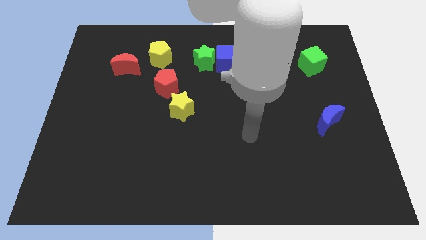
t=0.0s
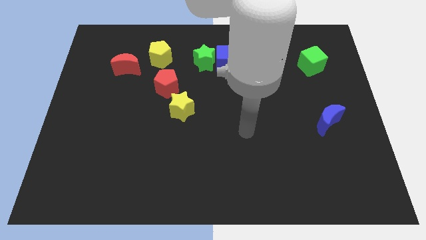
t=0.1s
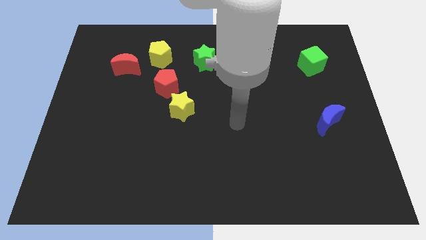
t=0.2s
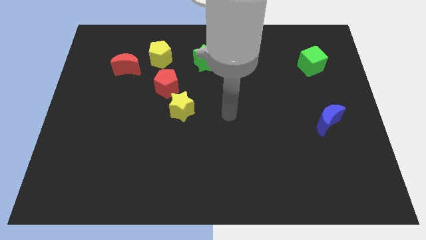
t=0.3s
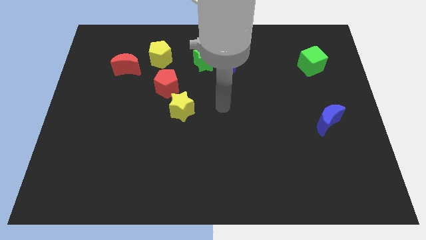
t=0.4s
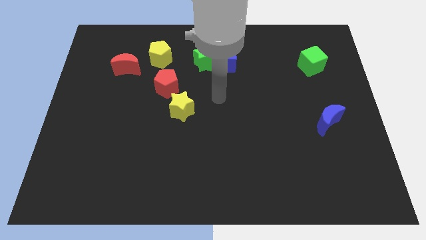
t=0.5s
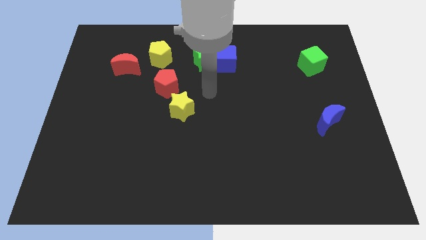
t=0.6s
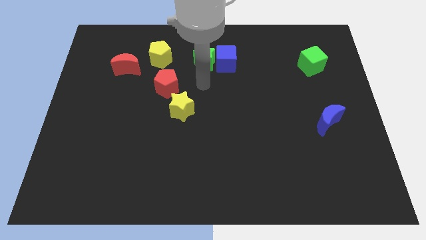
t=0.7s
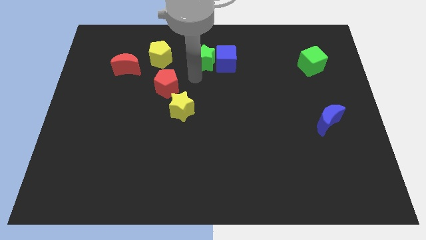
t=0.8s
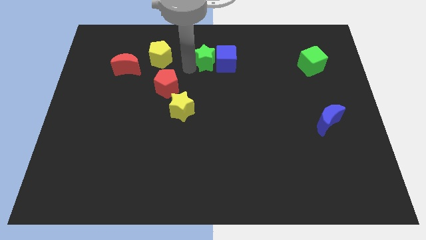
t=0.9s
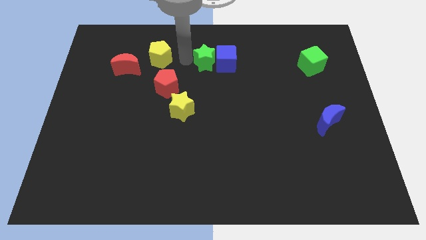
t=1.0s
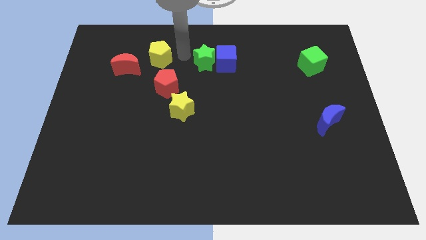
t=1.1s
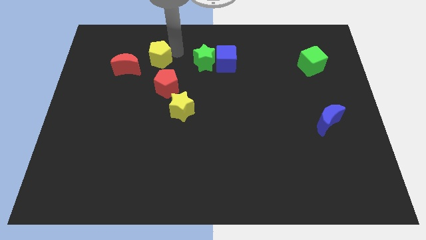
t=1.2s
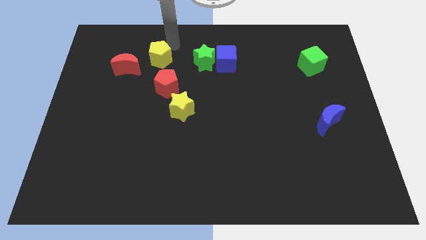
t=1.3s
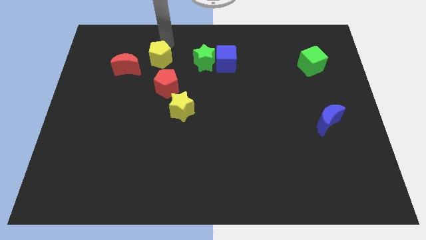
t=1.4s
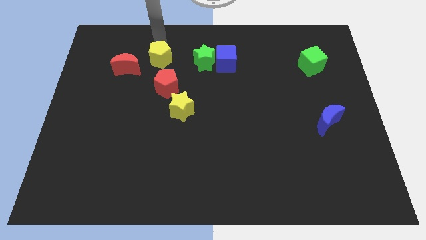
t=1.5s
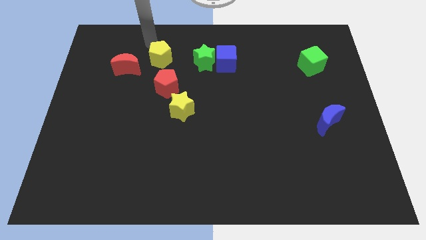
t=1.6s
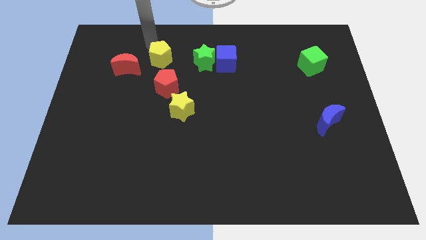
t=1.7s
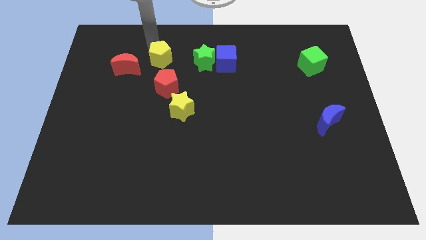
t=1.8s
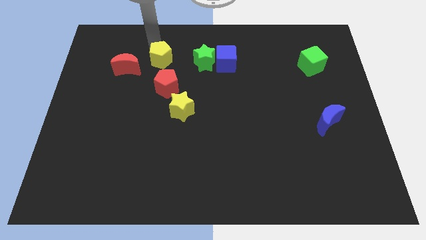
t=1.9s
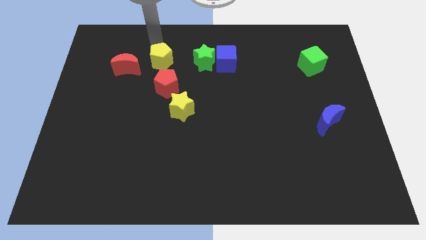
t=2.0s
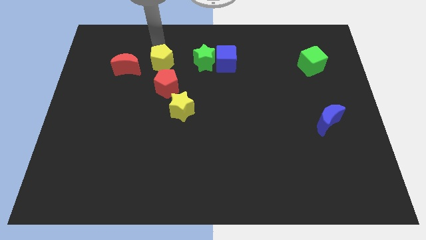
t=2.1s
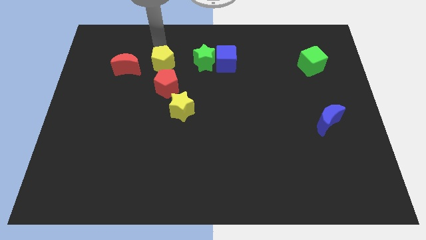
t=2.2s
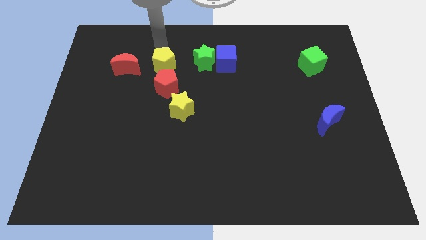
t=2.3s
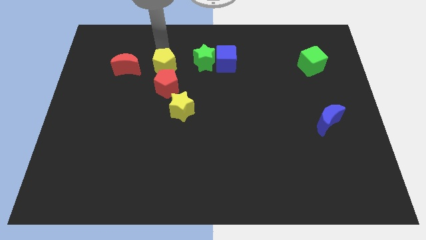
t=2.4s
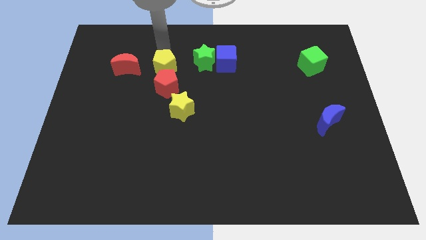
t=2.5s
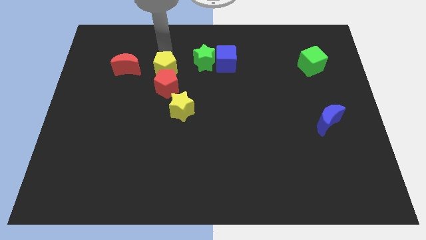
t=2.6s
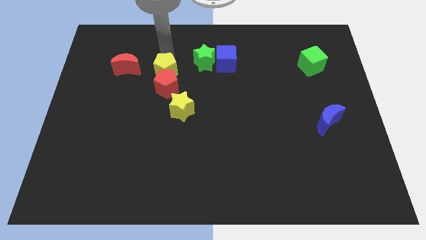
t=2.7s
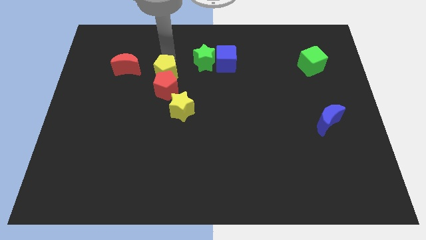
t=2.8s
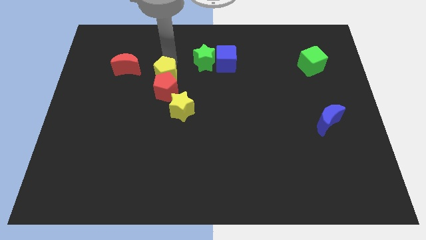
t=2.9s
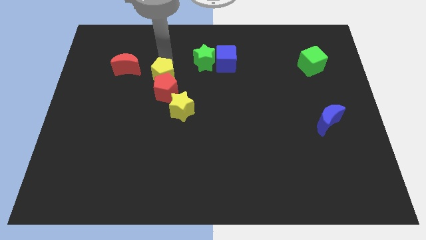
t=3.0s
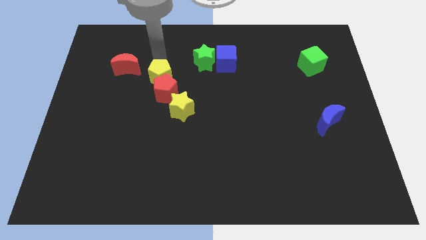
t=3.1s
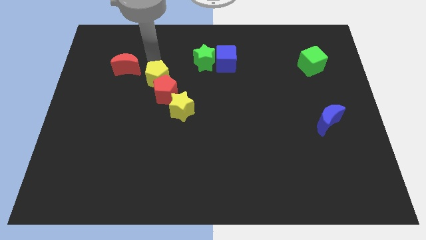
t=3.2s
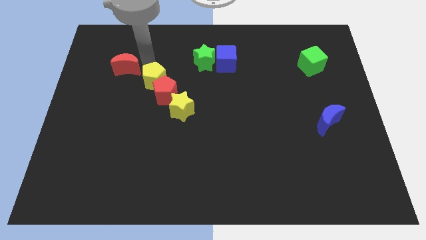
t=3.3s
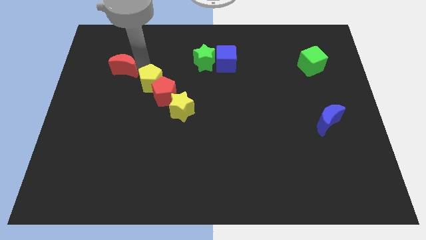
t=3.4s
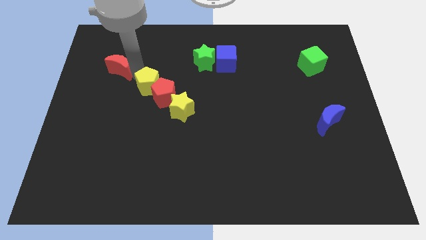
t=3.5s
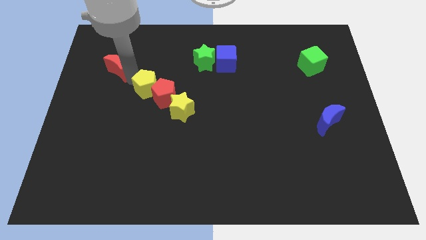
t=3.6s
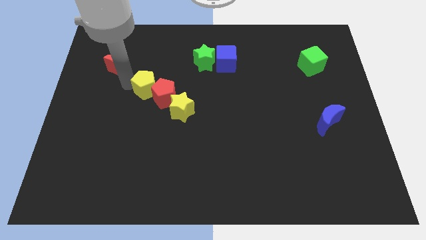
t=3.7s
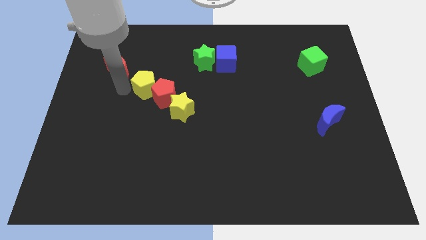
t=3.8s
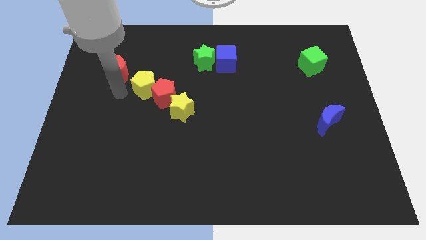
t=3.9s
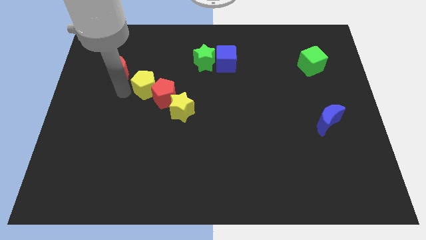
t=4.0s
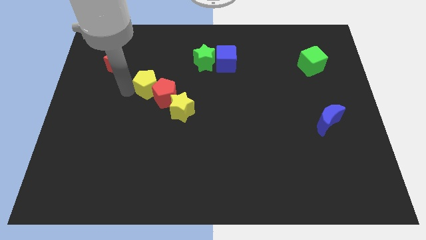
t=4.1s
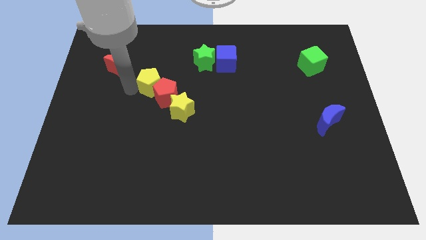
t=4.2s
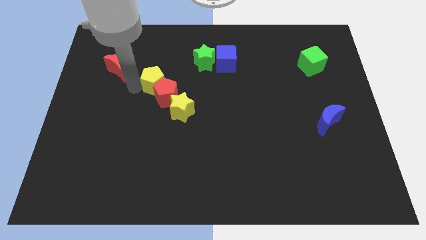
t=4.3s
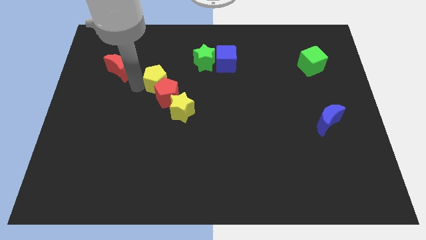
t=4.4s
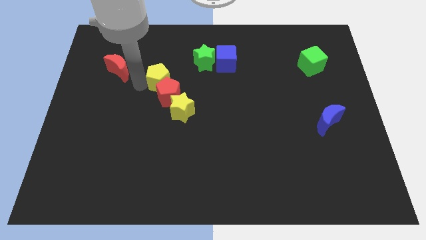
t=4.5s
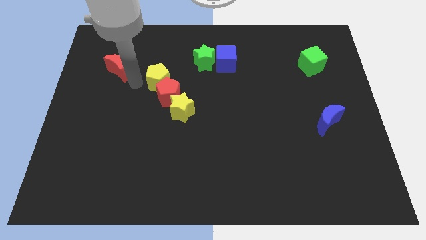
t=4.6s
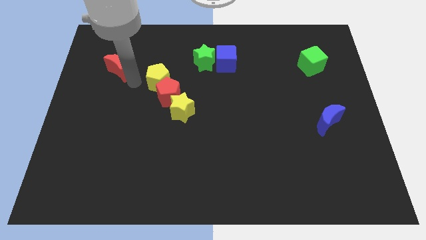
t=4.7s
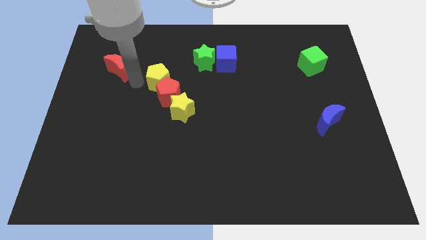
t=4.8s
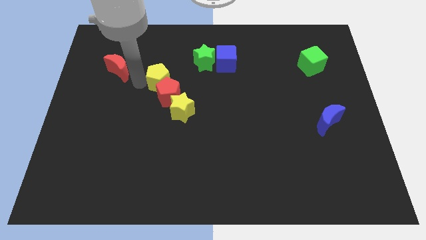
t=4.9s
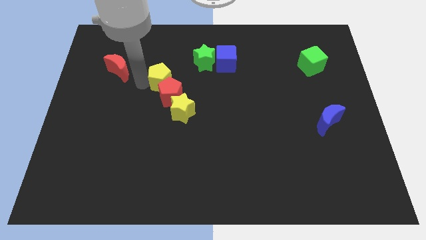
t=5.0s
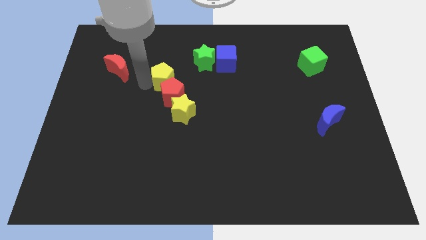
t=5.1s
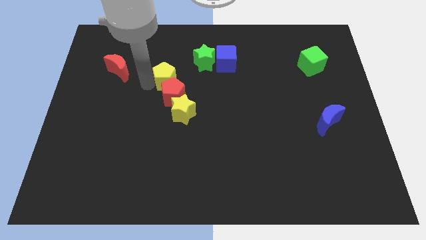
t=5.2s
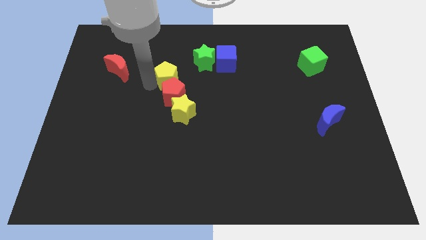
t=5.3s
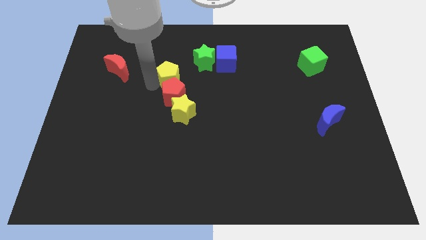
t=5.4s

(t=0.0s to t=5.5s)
slide the yellow pentagon to the middle of the board
